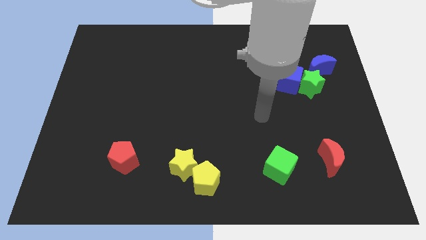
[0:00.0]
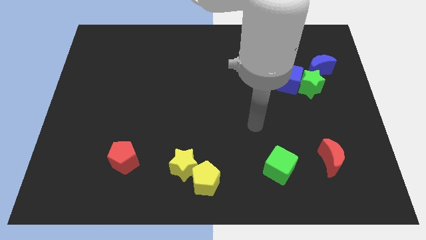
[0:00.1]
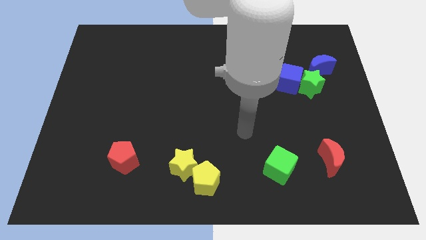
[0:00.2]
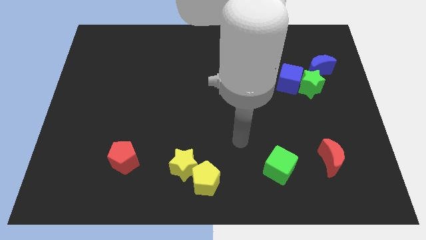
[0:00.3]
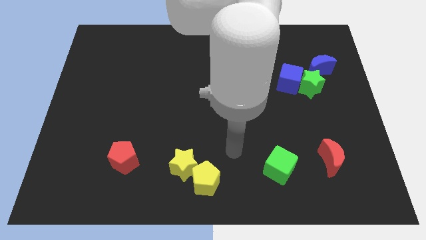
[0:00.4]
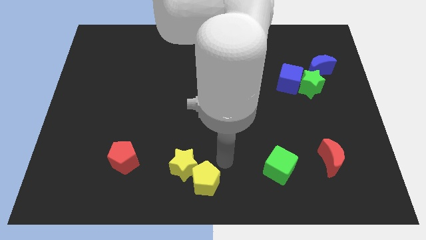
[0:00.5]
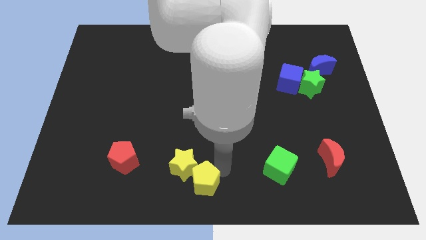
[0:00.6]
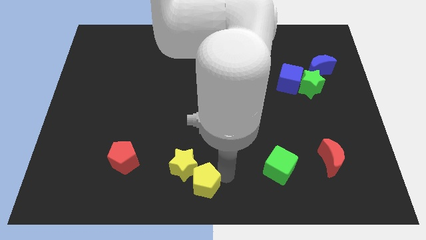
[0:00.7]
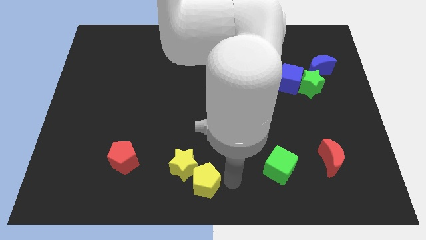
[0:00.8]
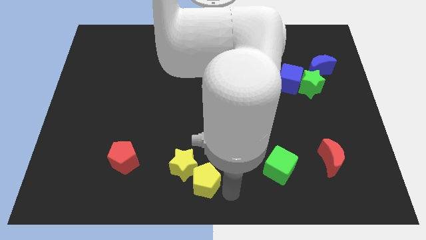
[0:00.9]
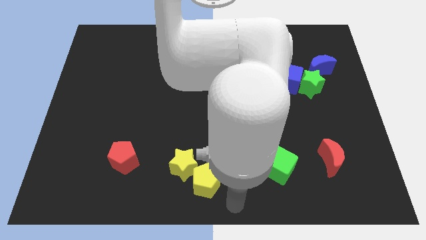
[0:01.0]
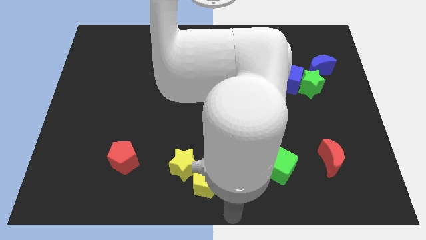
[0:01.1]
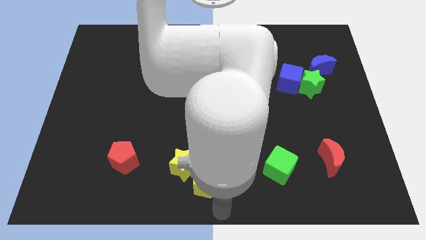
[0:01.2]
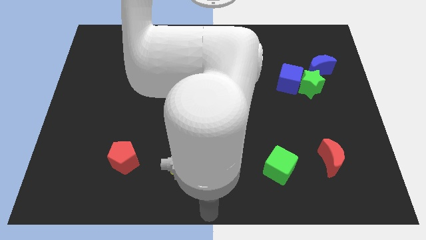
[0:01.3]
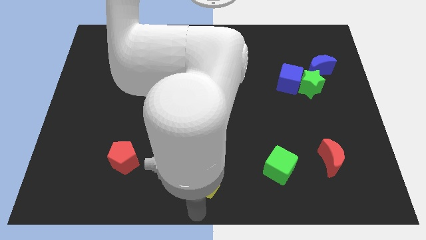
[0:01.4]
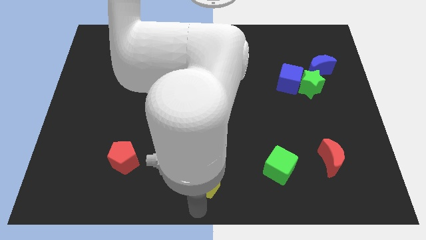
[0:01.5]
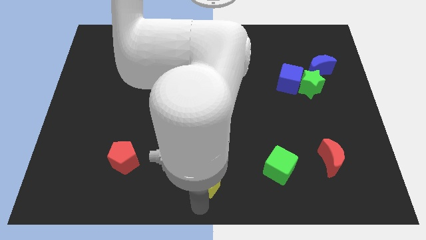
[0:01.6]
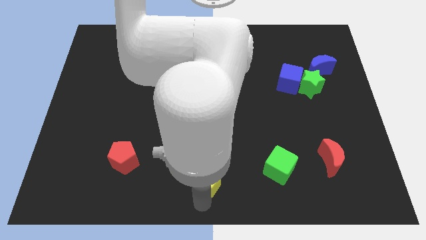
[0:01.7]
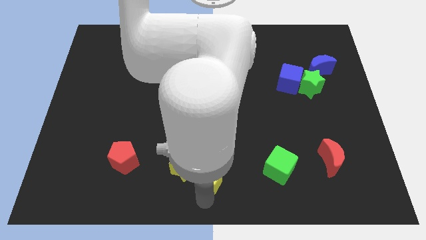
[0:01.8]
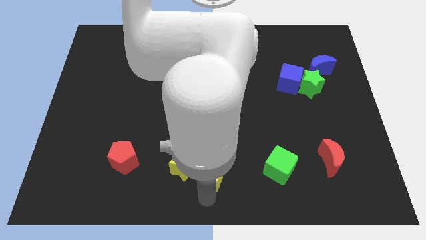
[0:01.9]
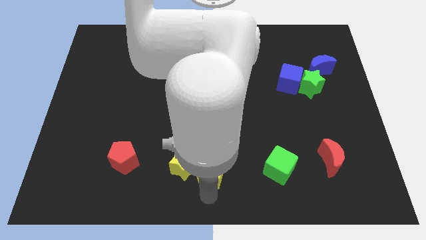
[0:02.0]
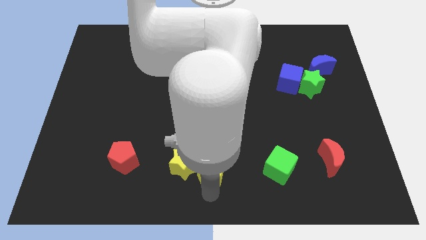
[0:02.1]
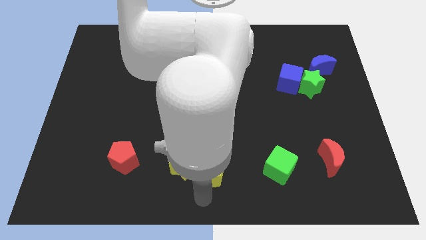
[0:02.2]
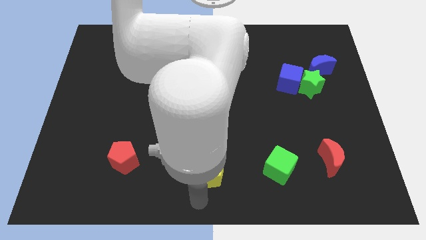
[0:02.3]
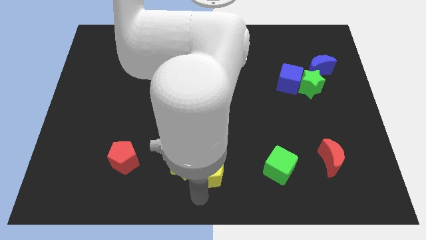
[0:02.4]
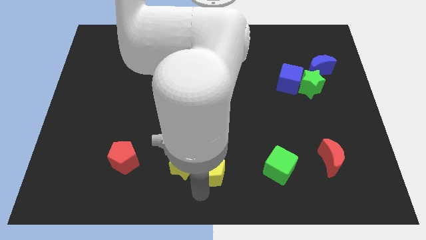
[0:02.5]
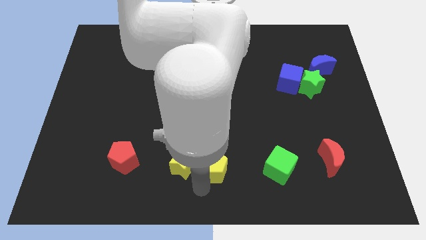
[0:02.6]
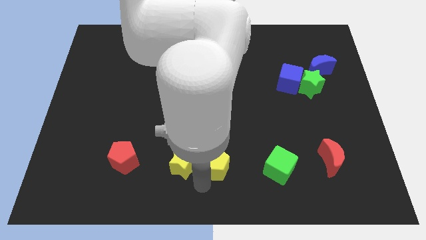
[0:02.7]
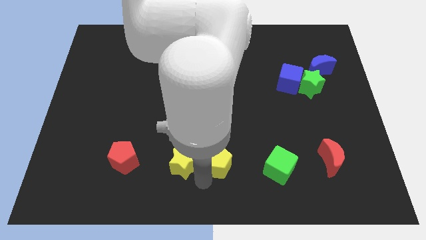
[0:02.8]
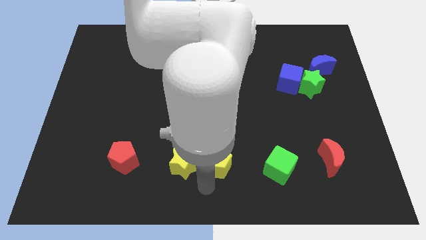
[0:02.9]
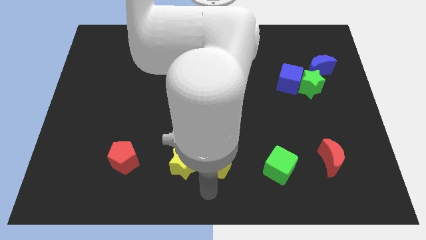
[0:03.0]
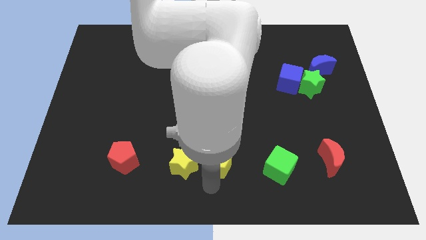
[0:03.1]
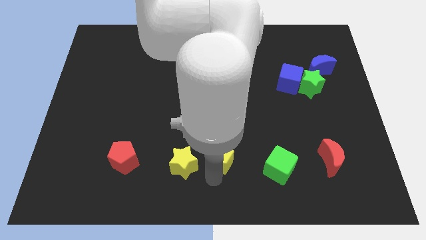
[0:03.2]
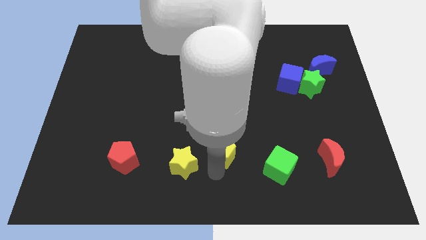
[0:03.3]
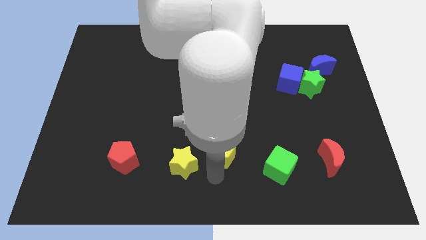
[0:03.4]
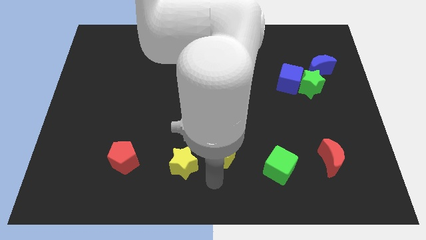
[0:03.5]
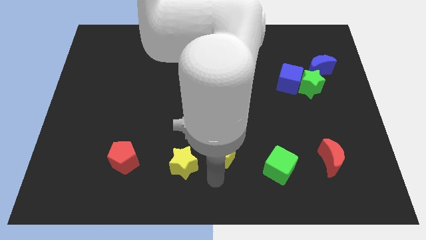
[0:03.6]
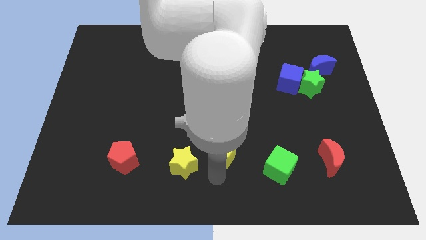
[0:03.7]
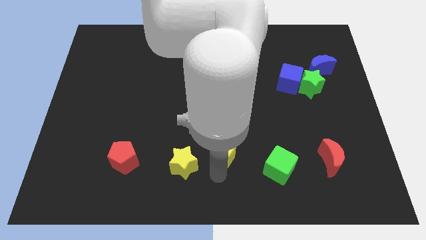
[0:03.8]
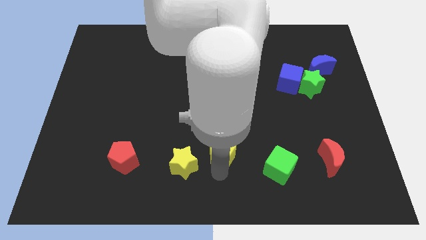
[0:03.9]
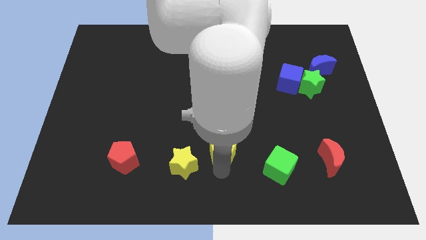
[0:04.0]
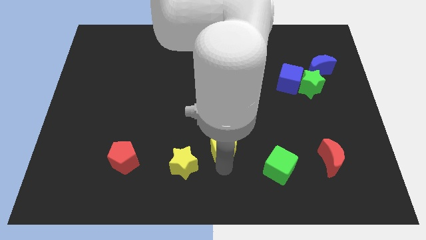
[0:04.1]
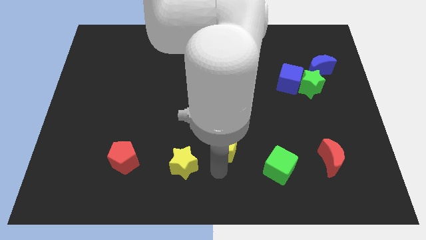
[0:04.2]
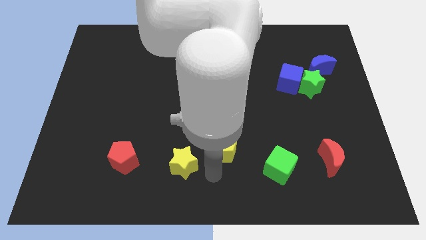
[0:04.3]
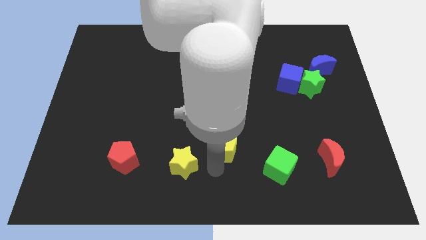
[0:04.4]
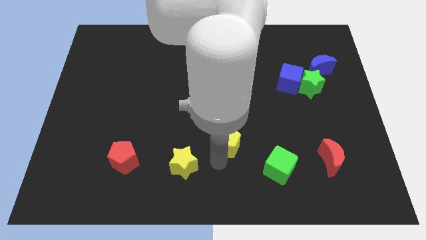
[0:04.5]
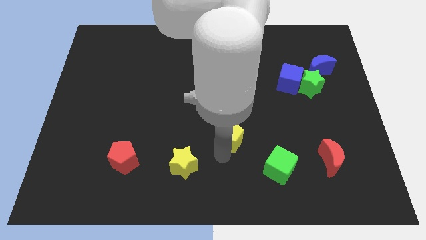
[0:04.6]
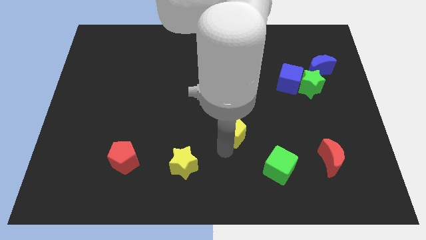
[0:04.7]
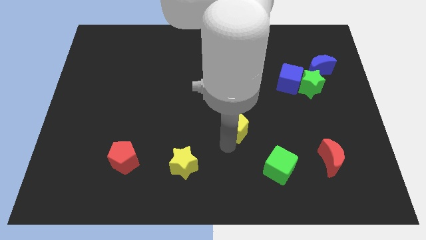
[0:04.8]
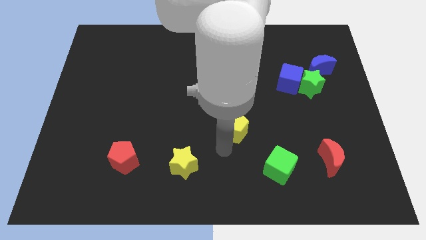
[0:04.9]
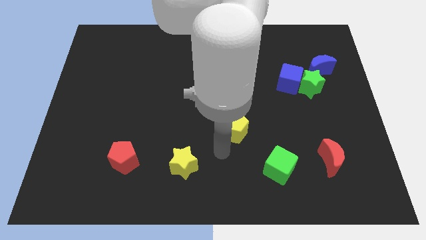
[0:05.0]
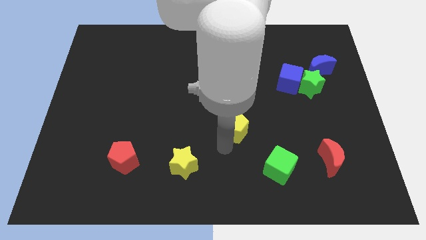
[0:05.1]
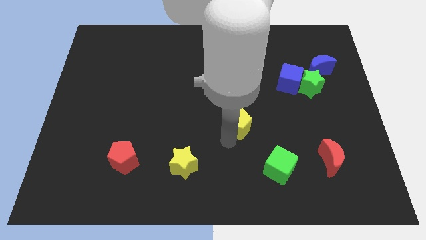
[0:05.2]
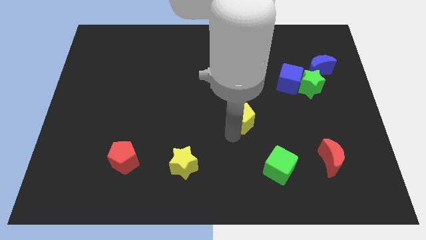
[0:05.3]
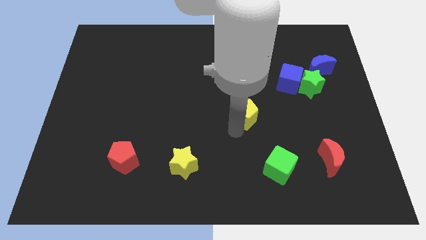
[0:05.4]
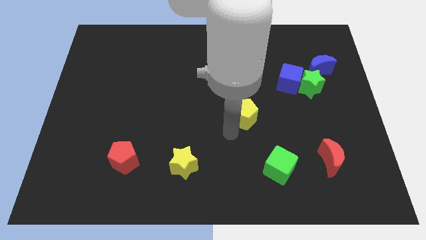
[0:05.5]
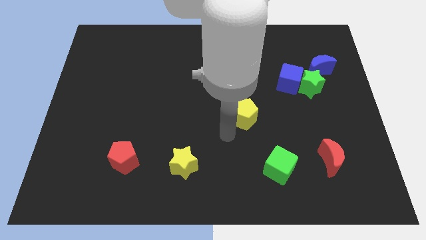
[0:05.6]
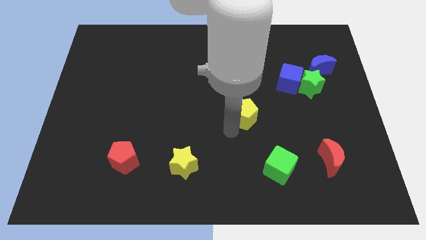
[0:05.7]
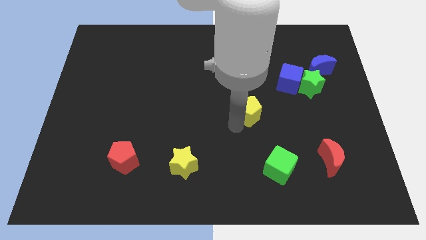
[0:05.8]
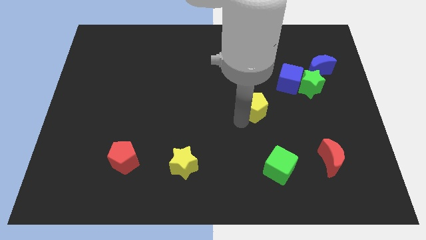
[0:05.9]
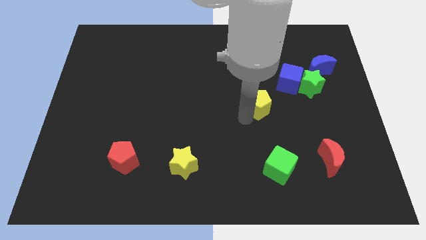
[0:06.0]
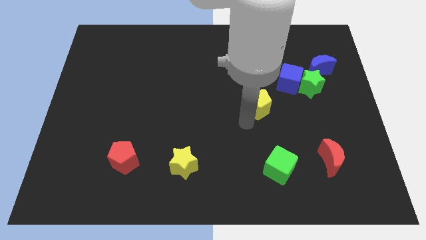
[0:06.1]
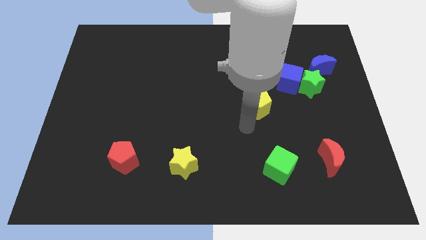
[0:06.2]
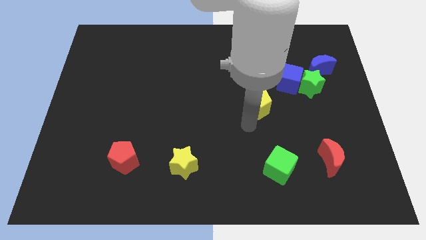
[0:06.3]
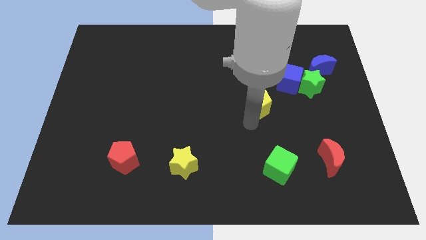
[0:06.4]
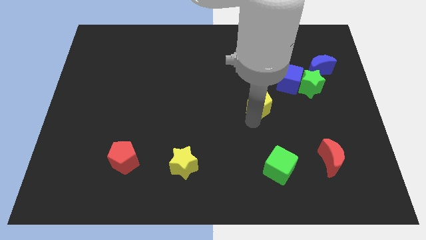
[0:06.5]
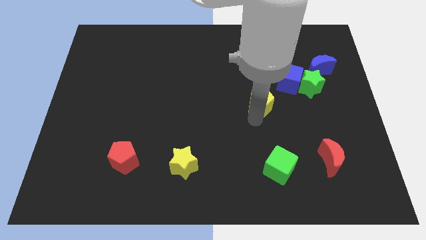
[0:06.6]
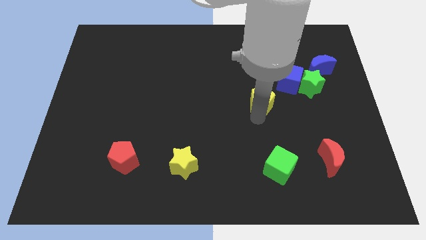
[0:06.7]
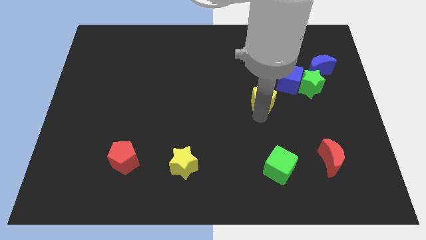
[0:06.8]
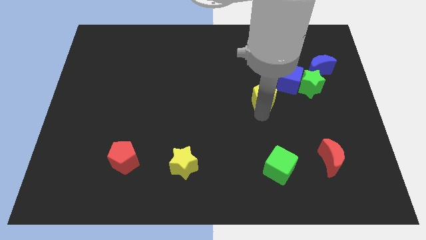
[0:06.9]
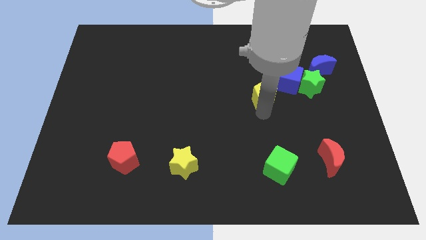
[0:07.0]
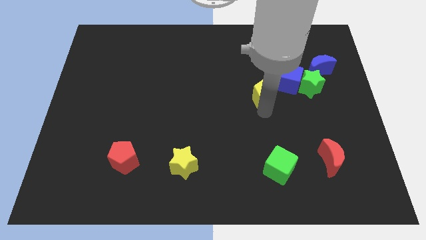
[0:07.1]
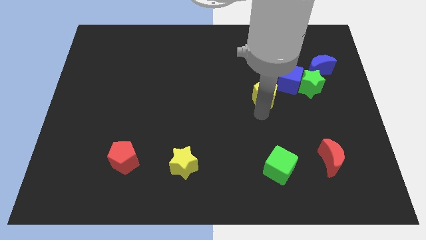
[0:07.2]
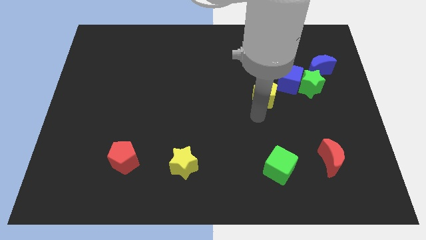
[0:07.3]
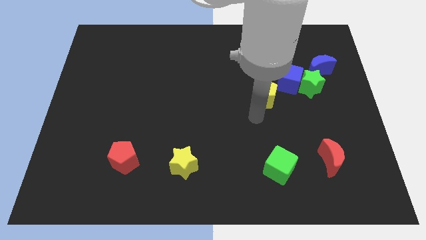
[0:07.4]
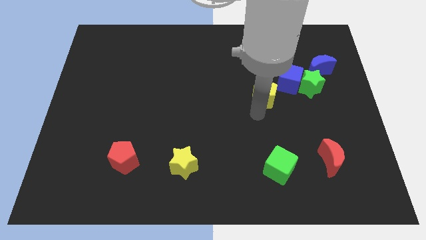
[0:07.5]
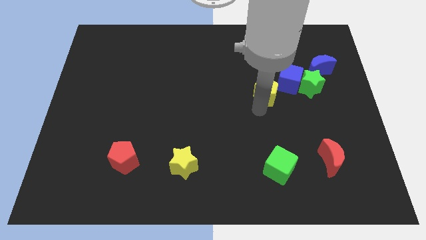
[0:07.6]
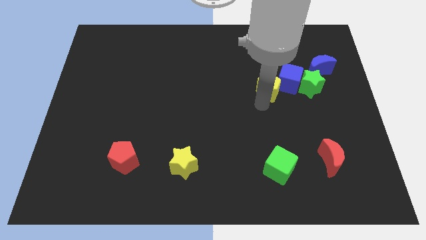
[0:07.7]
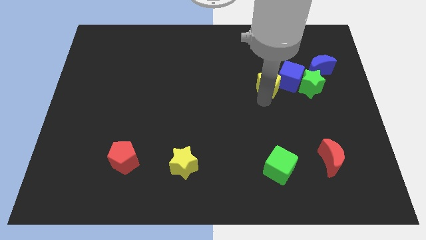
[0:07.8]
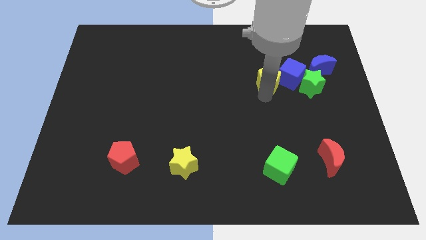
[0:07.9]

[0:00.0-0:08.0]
slide the yellow pentagon just left of the blue moon

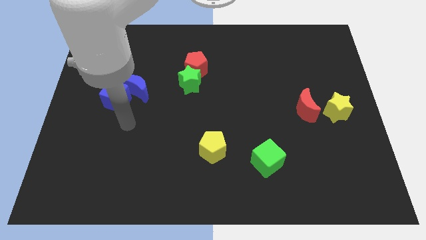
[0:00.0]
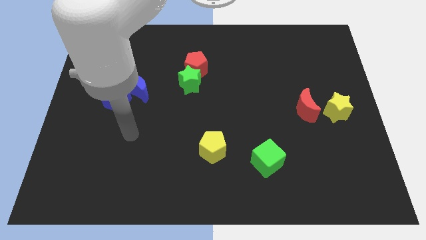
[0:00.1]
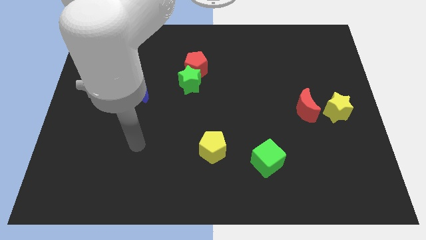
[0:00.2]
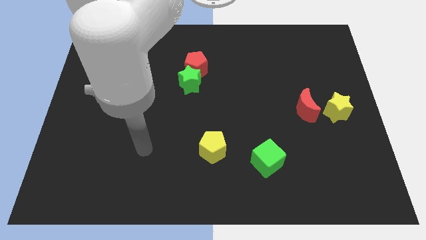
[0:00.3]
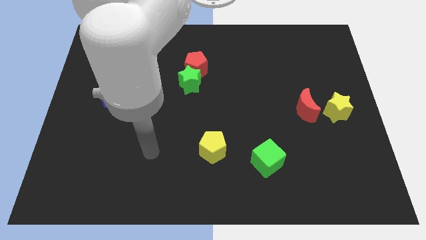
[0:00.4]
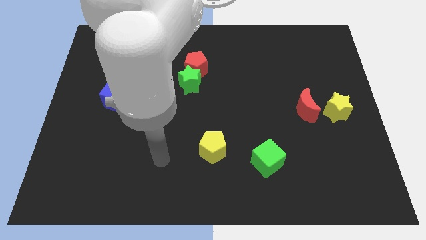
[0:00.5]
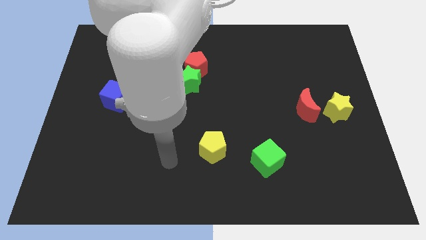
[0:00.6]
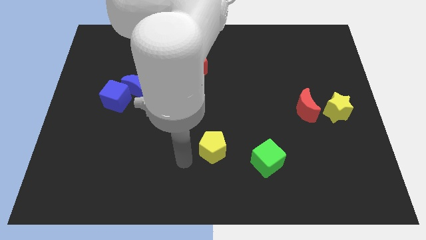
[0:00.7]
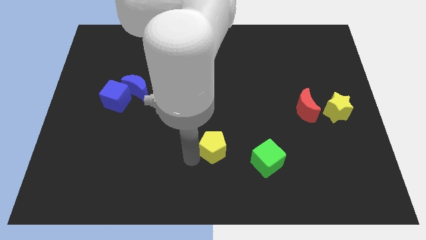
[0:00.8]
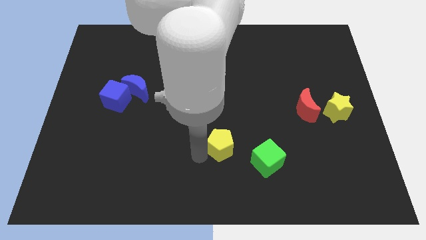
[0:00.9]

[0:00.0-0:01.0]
move the yellow pentagon to the top left of the green cube
